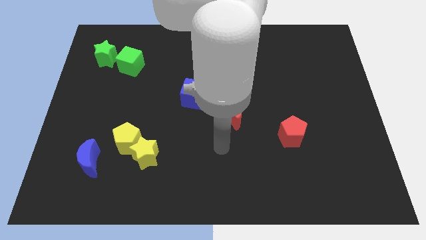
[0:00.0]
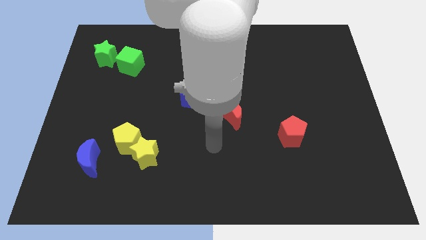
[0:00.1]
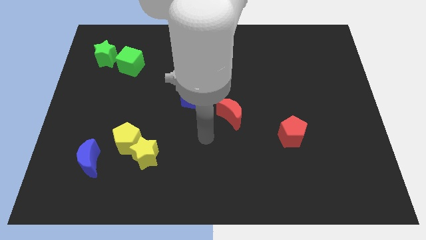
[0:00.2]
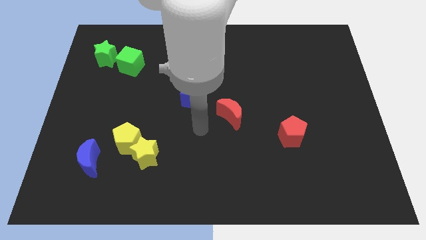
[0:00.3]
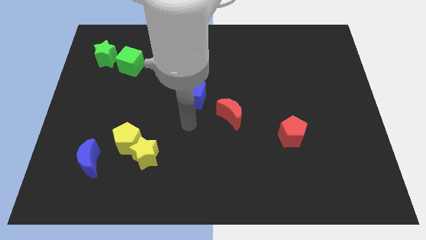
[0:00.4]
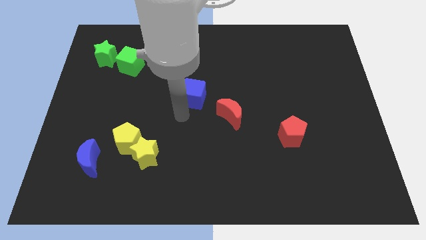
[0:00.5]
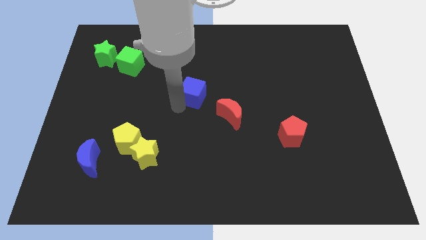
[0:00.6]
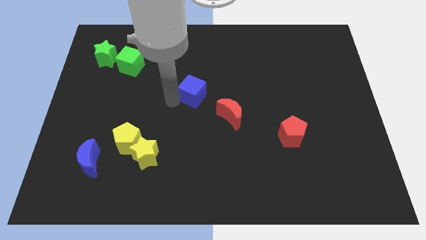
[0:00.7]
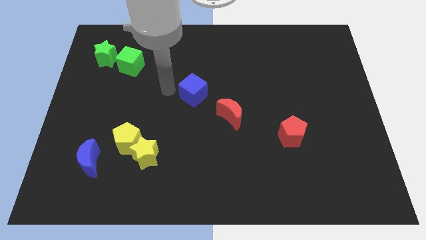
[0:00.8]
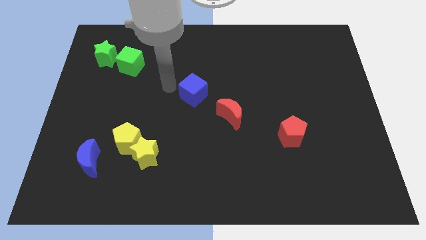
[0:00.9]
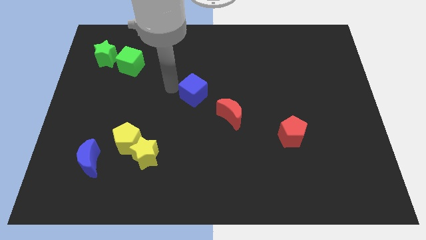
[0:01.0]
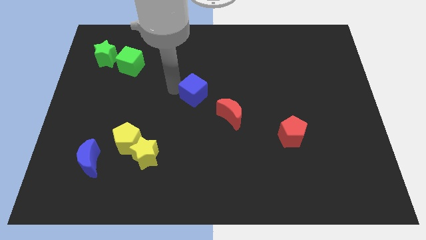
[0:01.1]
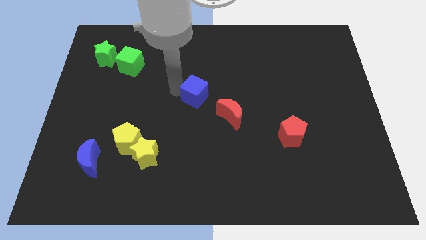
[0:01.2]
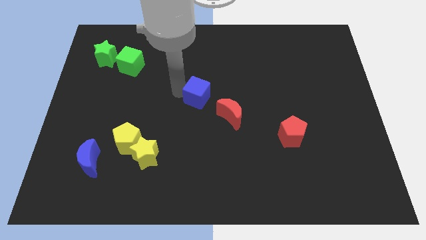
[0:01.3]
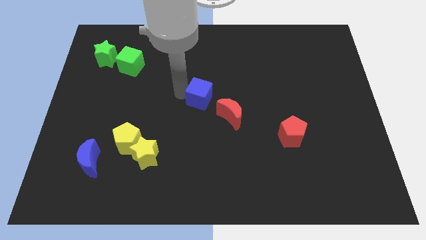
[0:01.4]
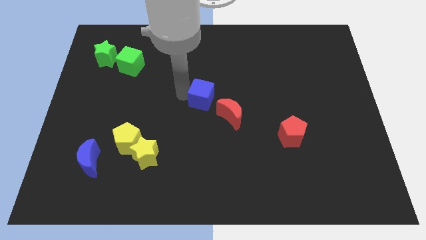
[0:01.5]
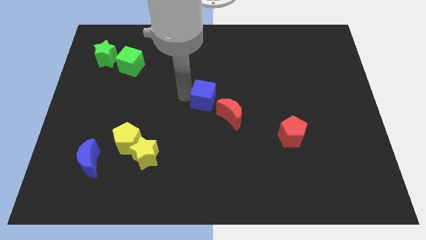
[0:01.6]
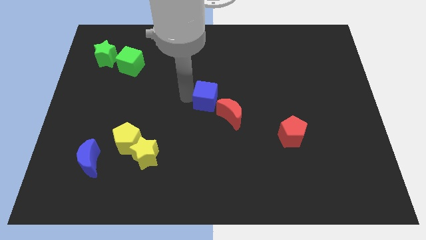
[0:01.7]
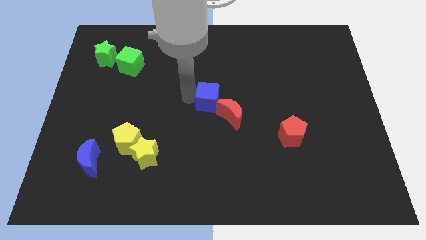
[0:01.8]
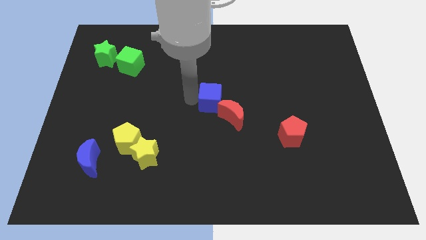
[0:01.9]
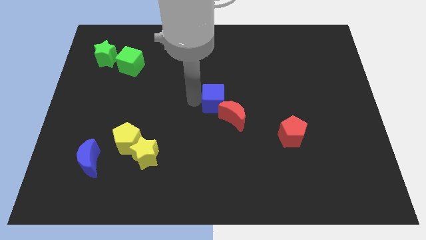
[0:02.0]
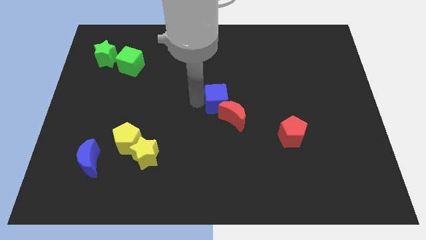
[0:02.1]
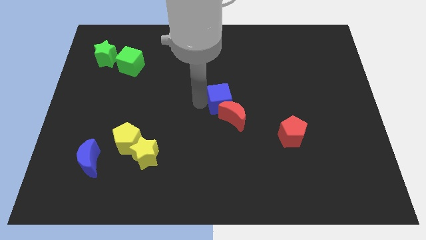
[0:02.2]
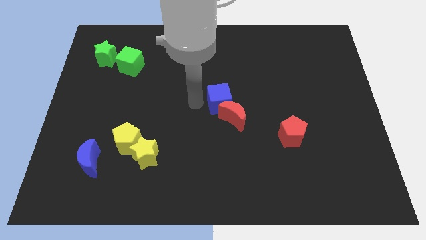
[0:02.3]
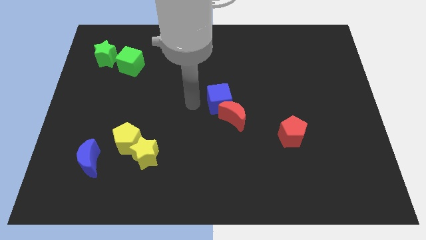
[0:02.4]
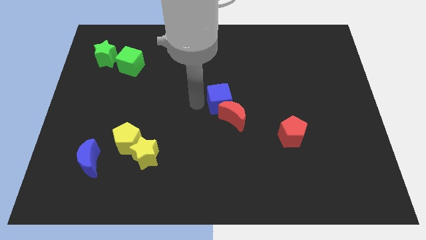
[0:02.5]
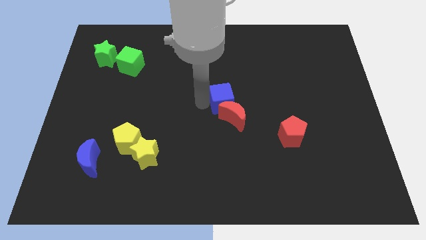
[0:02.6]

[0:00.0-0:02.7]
slightly push the blue cube right

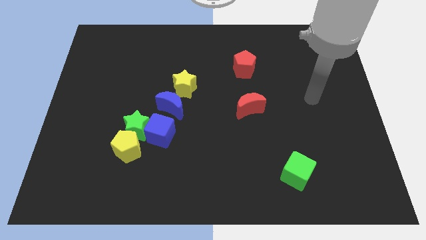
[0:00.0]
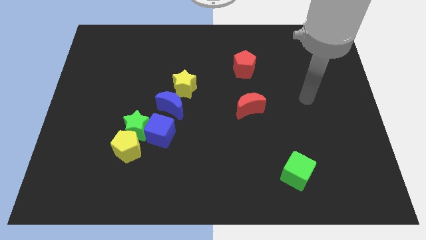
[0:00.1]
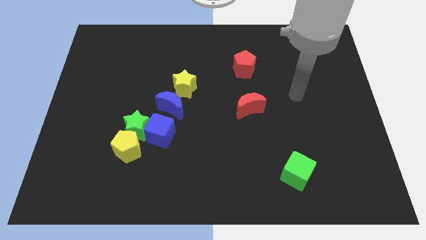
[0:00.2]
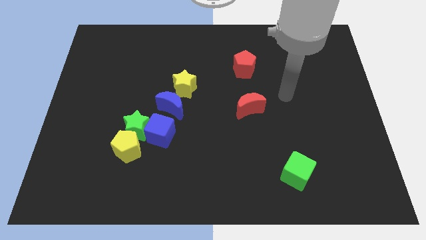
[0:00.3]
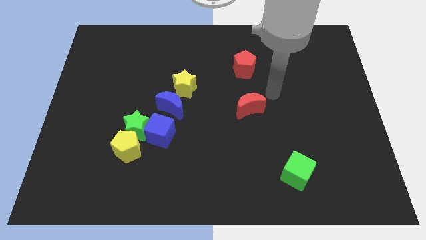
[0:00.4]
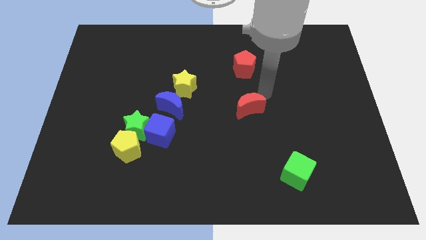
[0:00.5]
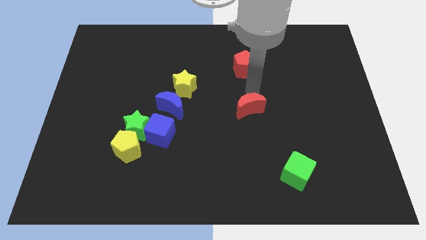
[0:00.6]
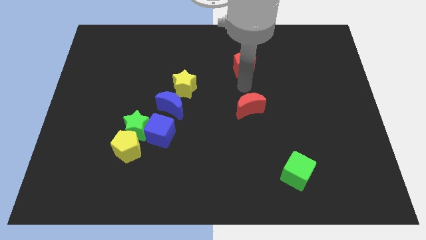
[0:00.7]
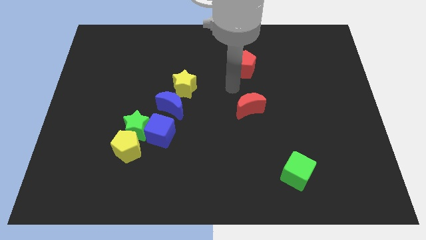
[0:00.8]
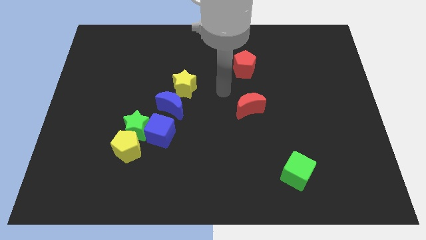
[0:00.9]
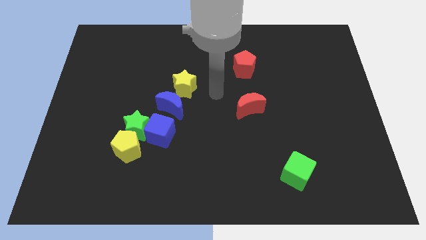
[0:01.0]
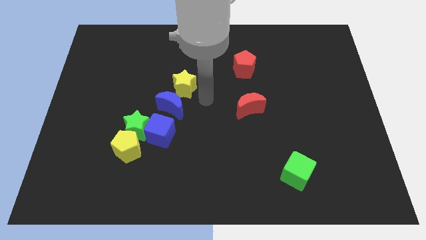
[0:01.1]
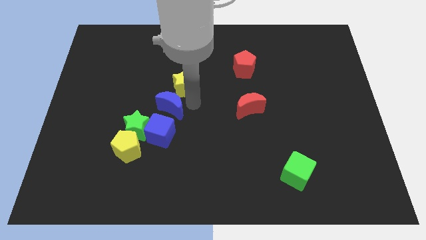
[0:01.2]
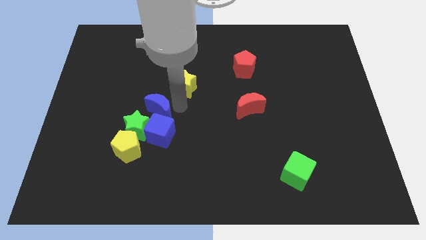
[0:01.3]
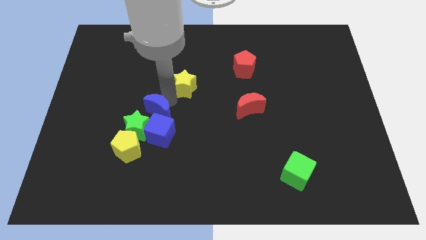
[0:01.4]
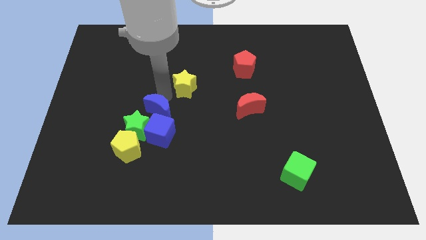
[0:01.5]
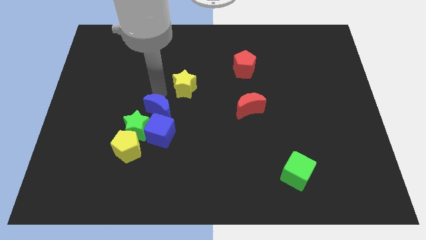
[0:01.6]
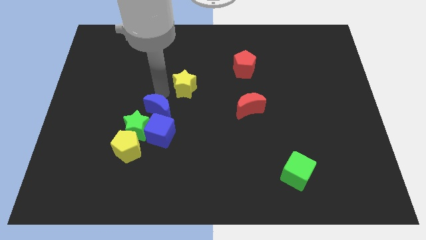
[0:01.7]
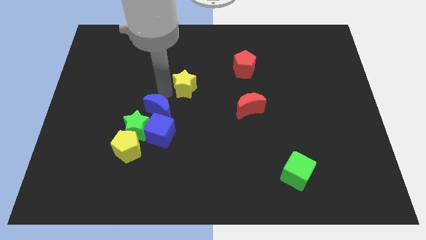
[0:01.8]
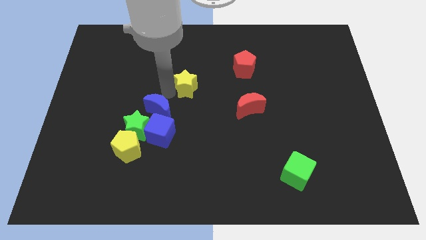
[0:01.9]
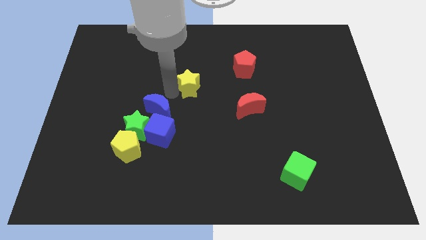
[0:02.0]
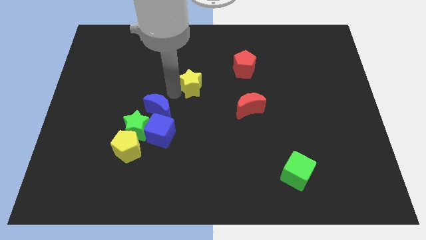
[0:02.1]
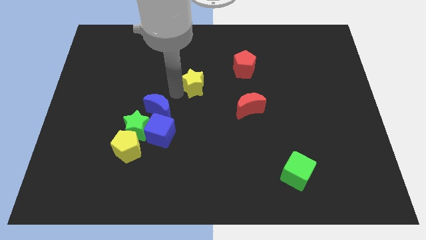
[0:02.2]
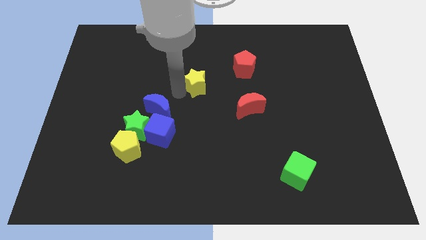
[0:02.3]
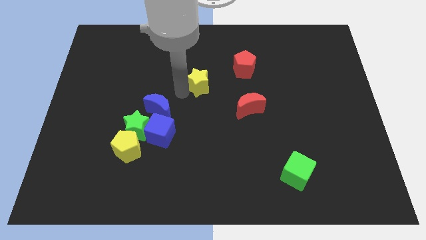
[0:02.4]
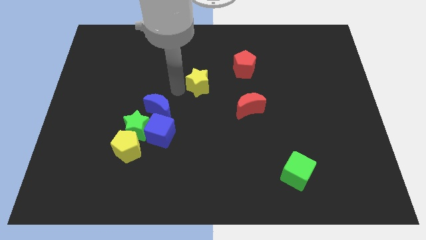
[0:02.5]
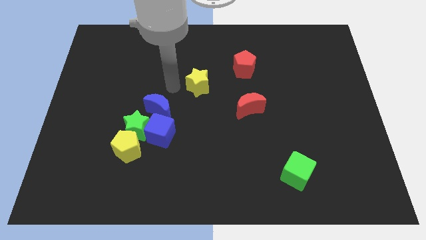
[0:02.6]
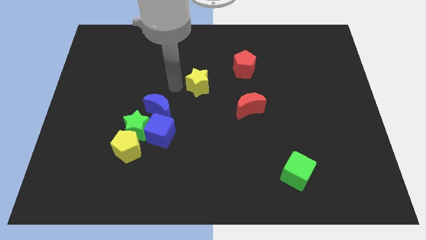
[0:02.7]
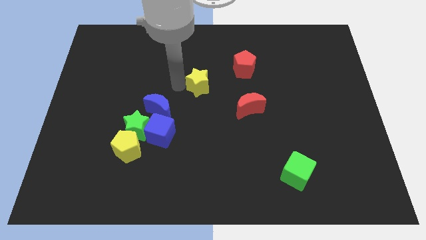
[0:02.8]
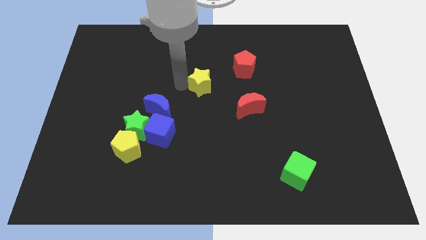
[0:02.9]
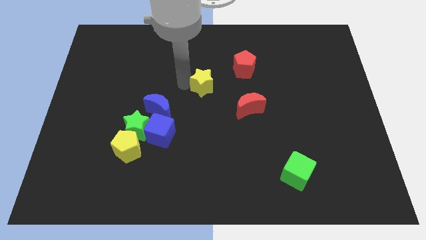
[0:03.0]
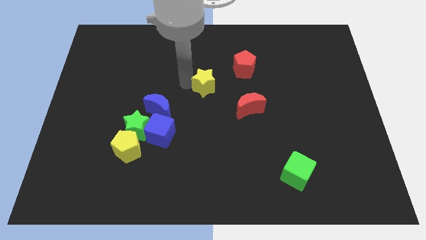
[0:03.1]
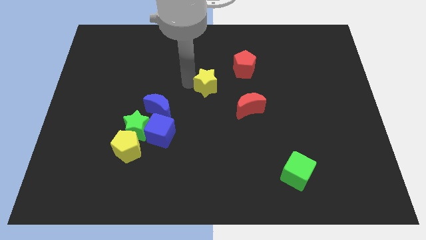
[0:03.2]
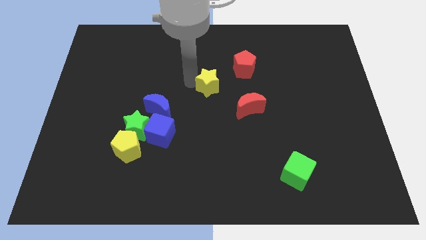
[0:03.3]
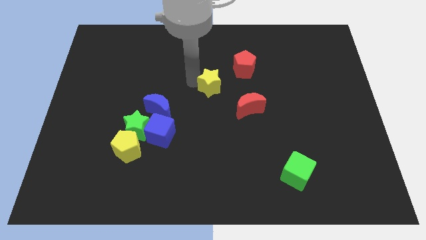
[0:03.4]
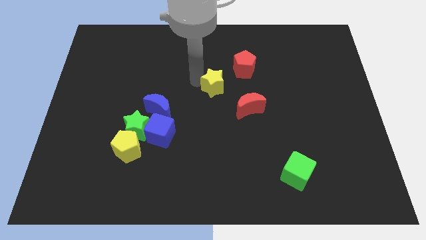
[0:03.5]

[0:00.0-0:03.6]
push the yellow star a little bit right

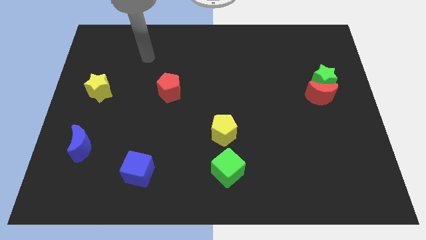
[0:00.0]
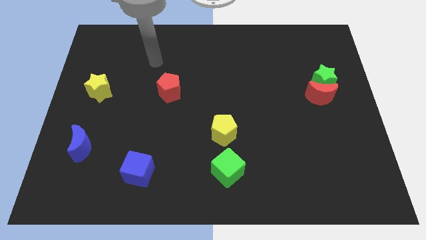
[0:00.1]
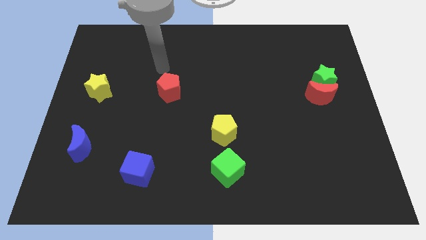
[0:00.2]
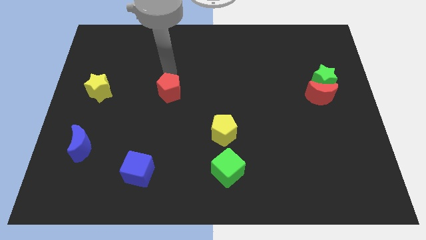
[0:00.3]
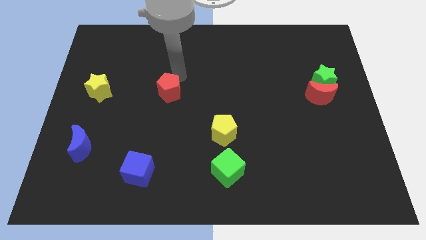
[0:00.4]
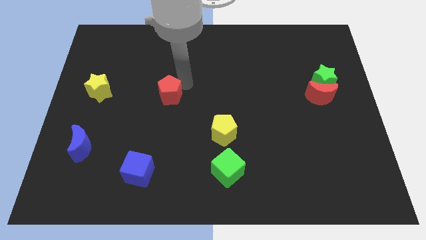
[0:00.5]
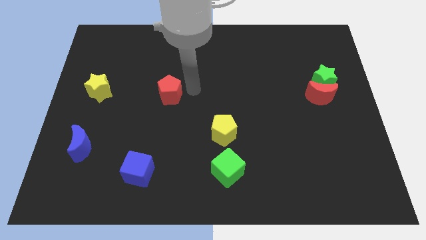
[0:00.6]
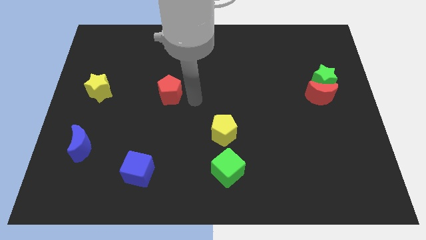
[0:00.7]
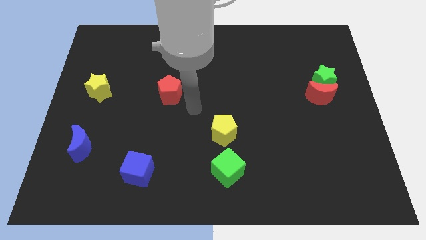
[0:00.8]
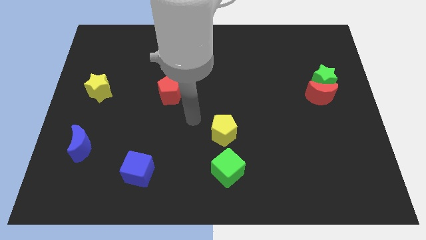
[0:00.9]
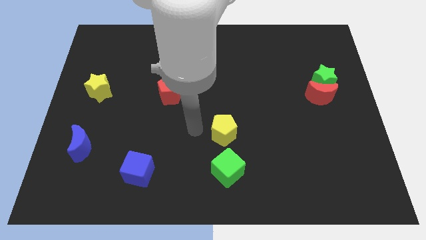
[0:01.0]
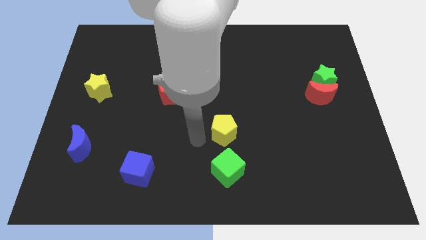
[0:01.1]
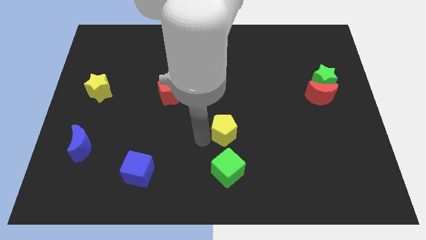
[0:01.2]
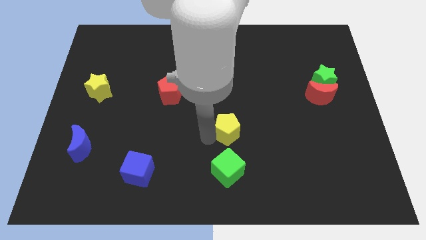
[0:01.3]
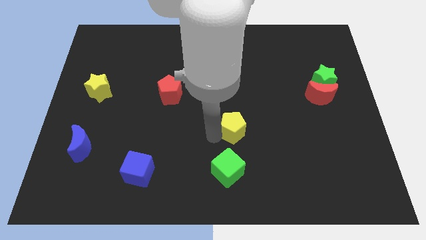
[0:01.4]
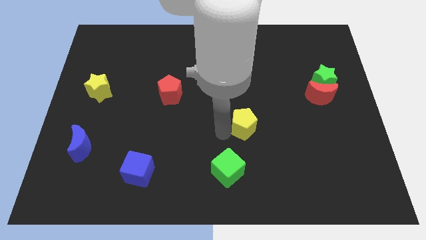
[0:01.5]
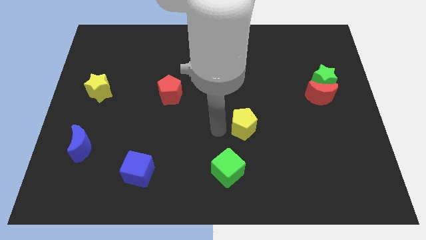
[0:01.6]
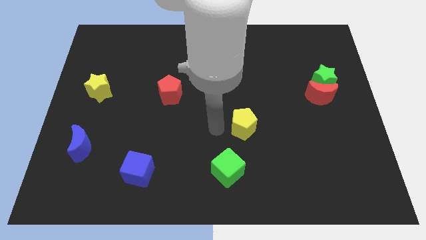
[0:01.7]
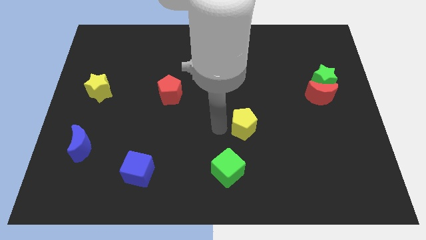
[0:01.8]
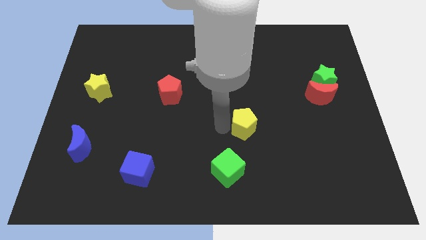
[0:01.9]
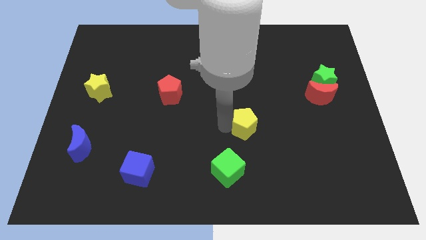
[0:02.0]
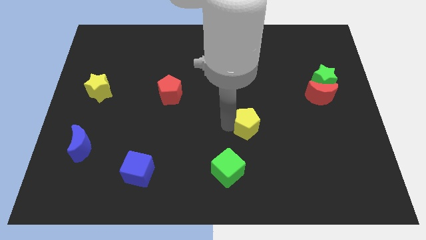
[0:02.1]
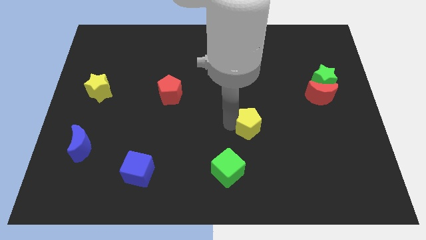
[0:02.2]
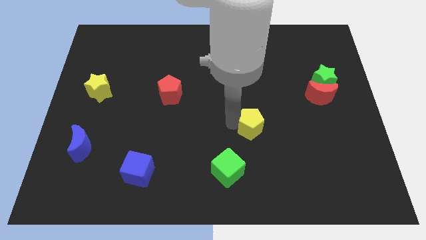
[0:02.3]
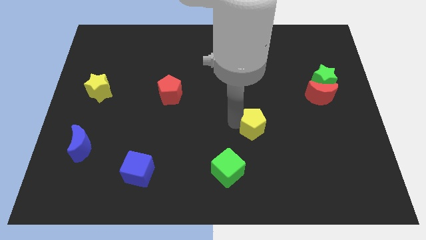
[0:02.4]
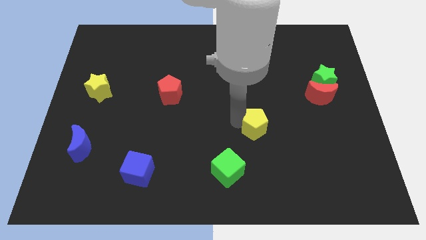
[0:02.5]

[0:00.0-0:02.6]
slide the yellow pentagon a little to the right
